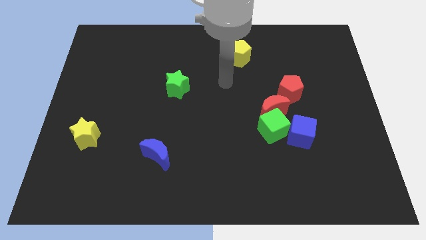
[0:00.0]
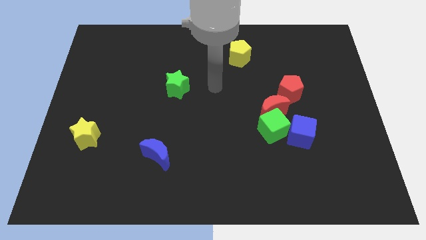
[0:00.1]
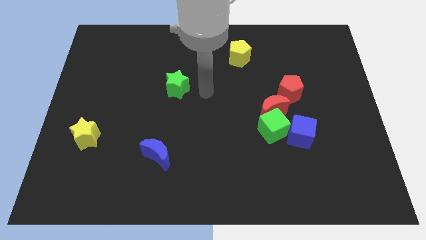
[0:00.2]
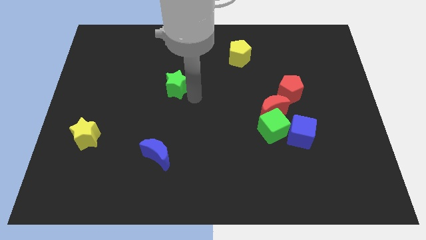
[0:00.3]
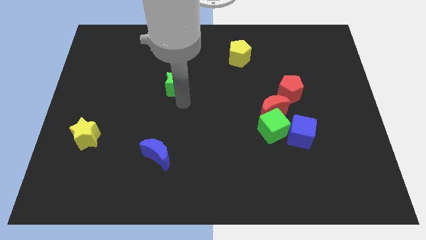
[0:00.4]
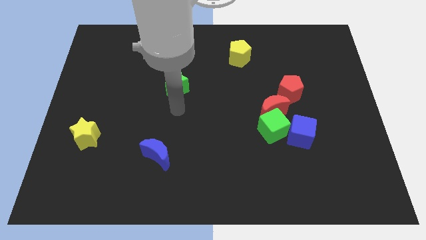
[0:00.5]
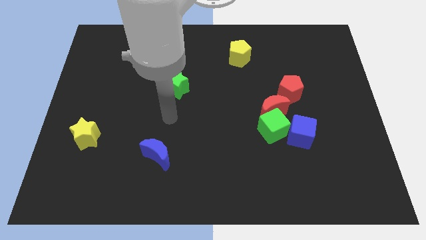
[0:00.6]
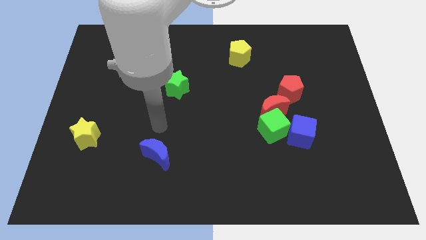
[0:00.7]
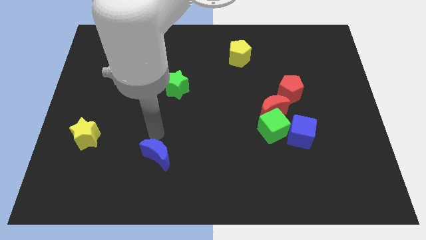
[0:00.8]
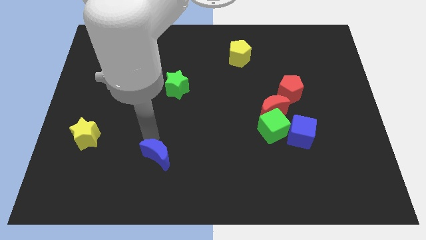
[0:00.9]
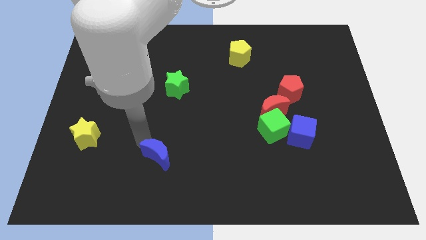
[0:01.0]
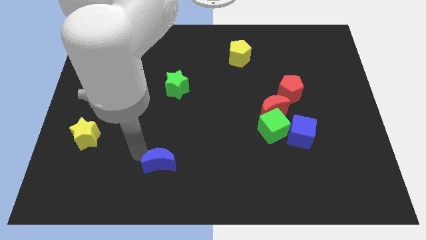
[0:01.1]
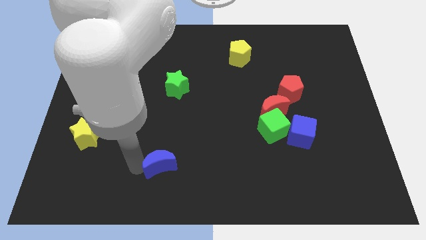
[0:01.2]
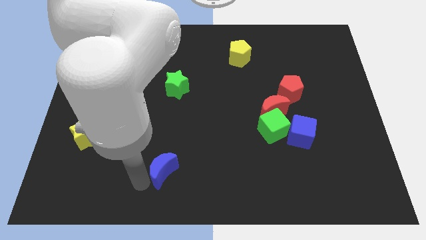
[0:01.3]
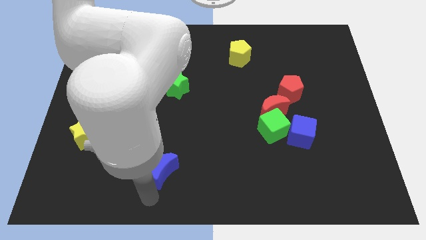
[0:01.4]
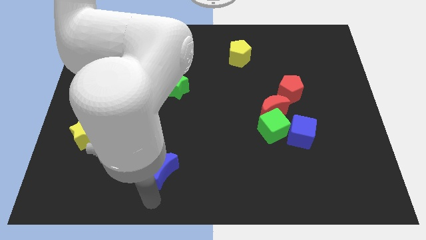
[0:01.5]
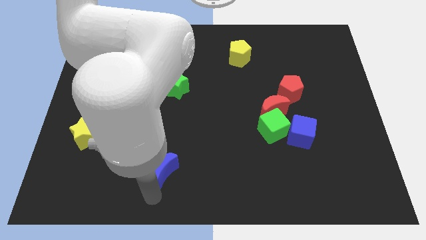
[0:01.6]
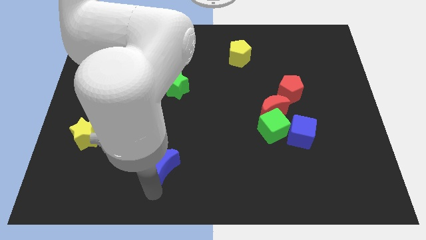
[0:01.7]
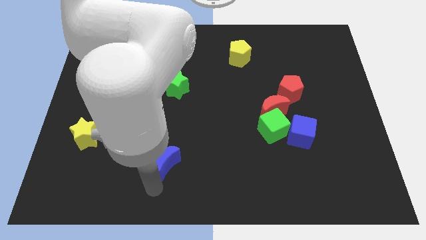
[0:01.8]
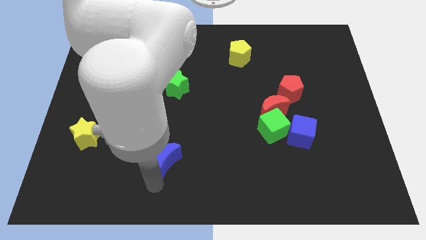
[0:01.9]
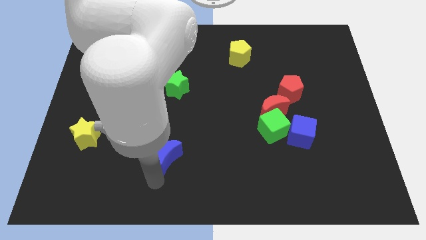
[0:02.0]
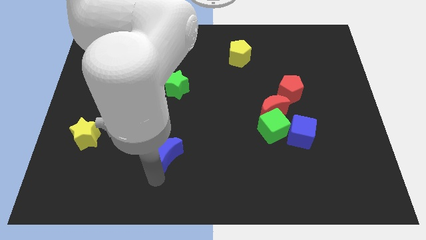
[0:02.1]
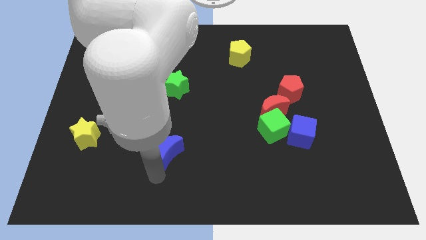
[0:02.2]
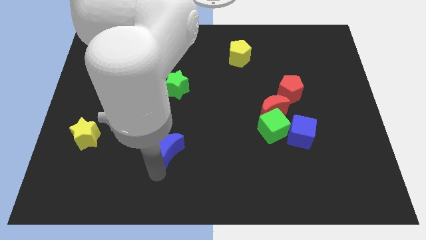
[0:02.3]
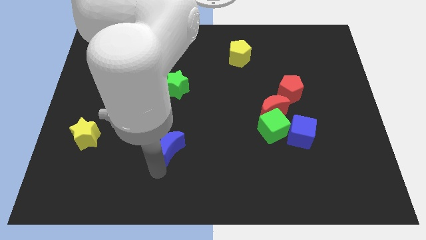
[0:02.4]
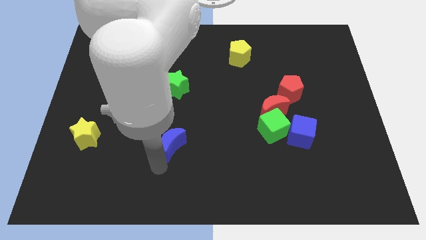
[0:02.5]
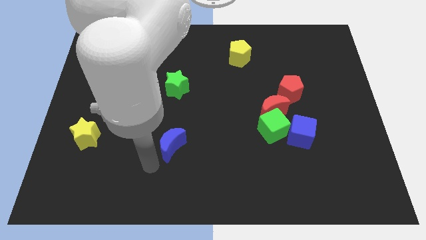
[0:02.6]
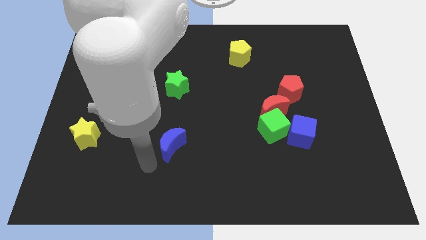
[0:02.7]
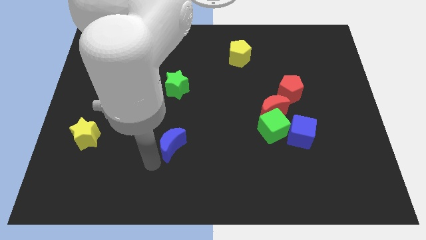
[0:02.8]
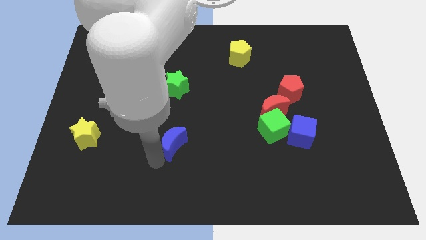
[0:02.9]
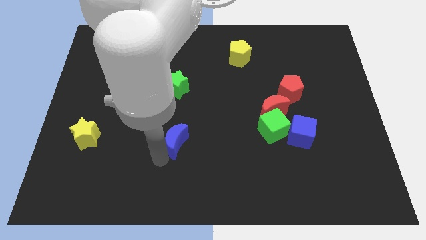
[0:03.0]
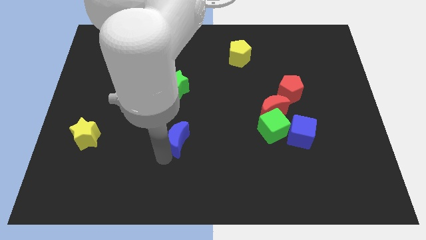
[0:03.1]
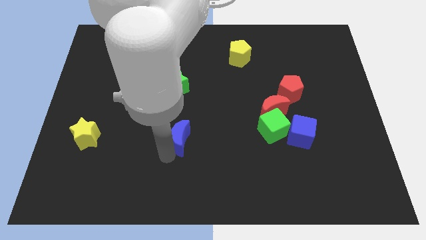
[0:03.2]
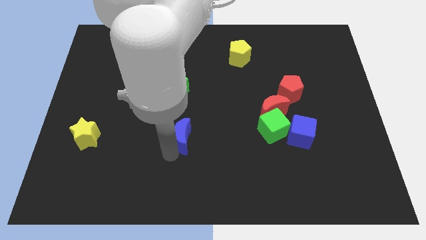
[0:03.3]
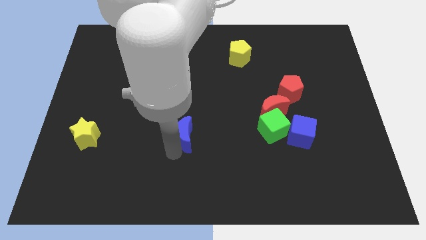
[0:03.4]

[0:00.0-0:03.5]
slightly slide the blue moon up and right diagonally

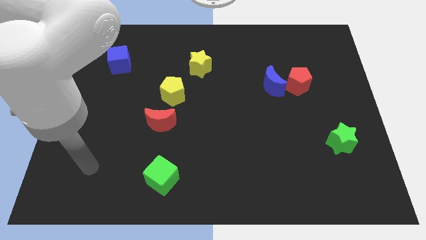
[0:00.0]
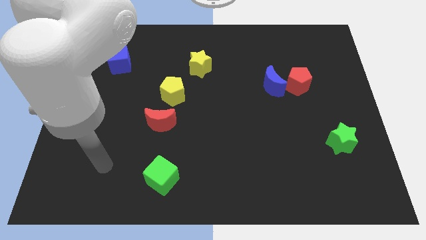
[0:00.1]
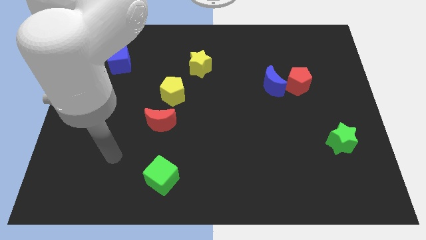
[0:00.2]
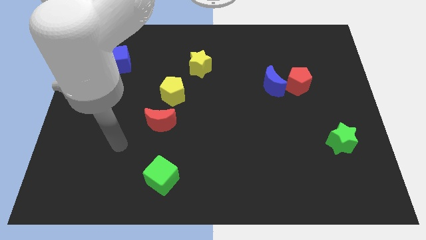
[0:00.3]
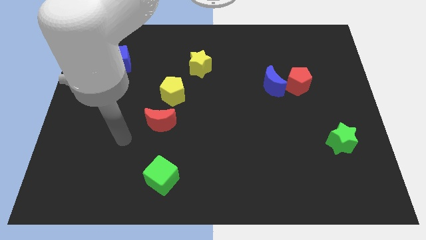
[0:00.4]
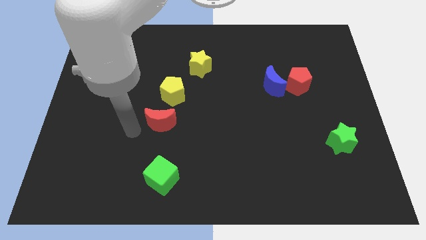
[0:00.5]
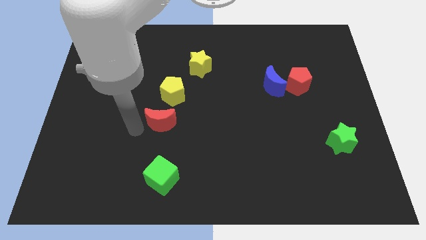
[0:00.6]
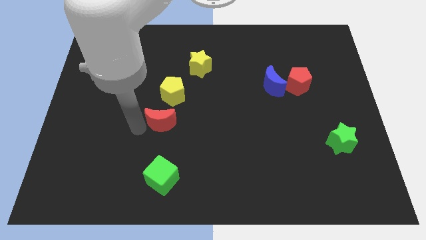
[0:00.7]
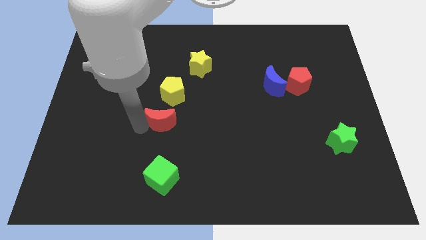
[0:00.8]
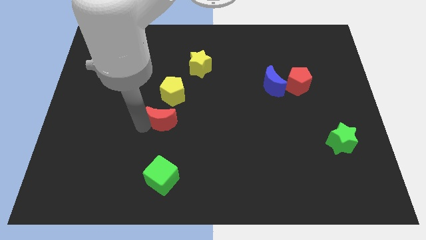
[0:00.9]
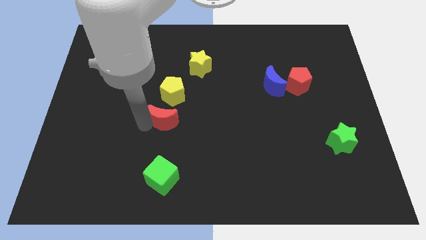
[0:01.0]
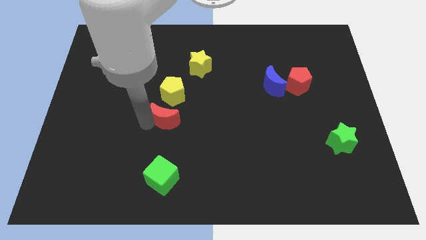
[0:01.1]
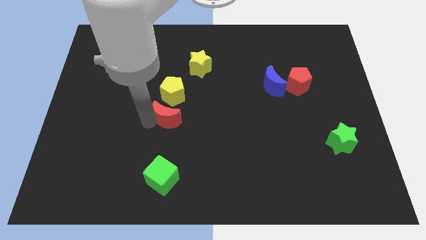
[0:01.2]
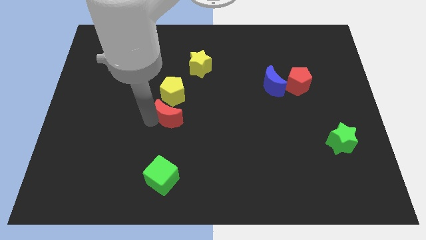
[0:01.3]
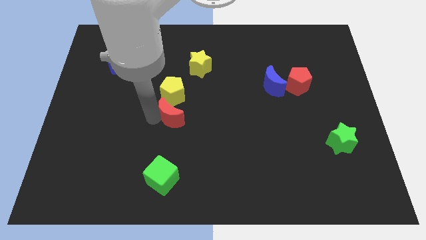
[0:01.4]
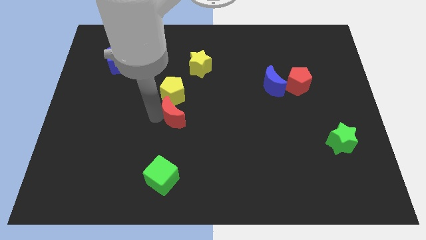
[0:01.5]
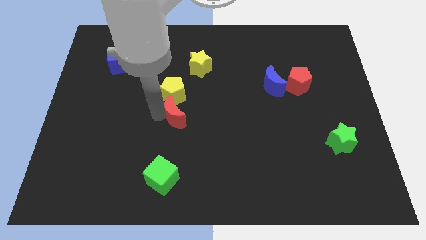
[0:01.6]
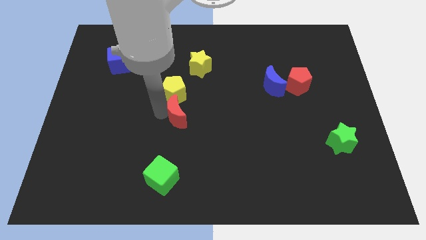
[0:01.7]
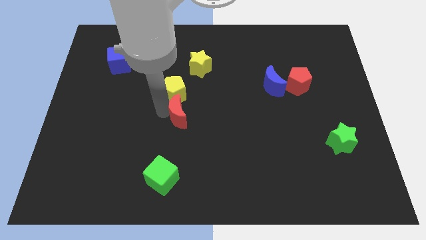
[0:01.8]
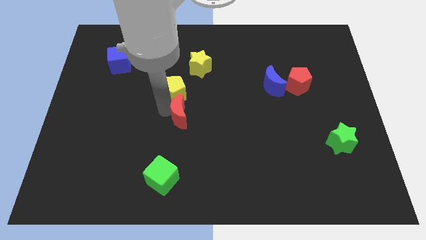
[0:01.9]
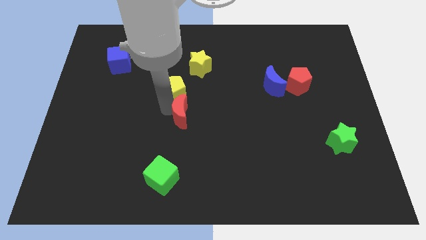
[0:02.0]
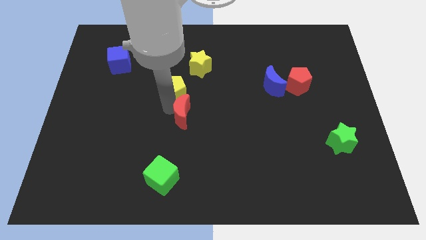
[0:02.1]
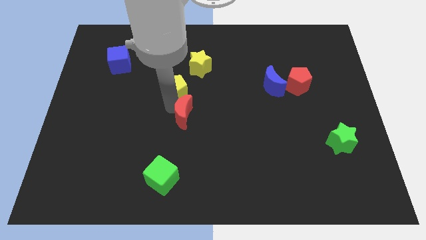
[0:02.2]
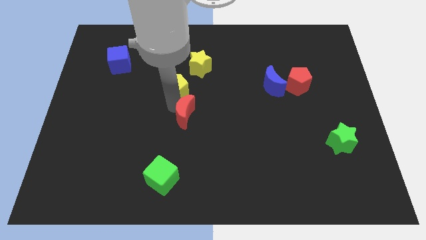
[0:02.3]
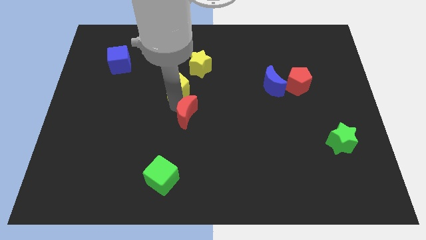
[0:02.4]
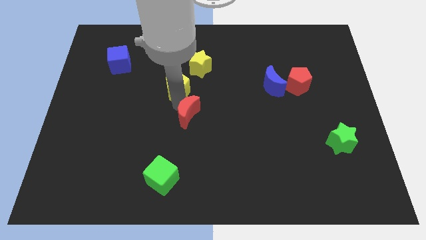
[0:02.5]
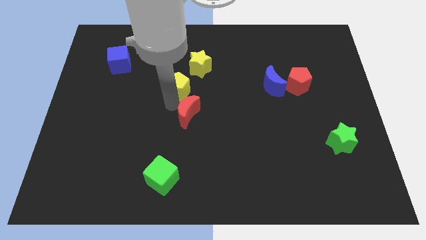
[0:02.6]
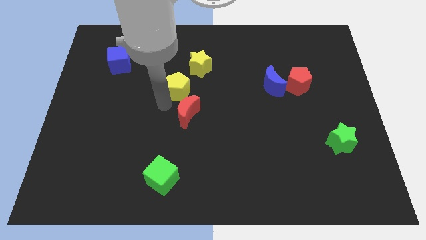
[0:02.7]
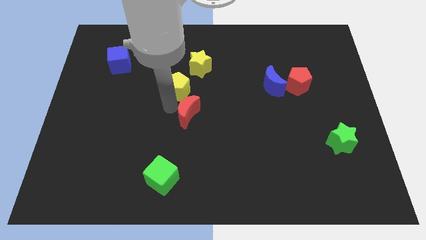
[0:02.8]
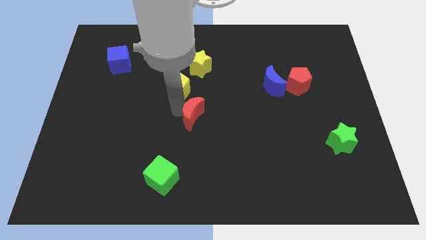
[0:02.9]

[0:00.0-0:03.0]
slightly slide the red moon to the right

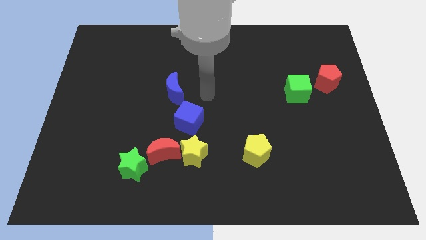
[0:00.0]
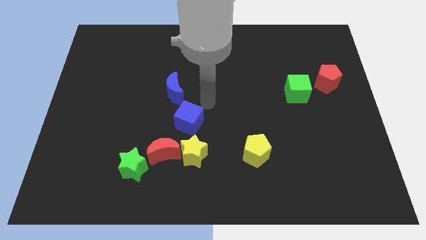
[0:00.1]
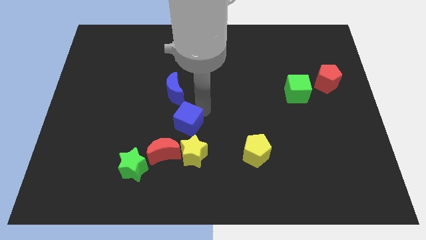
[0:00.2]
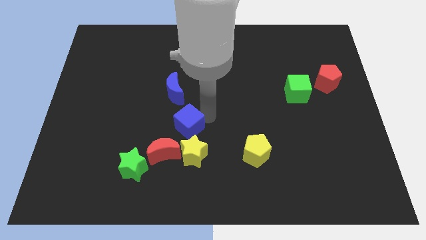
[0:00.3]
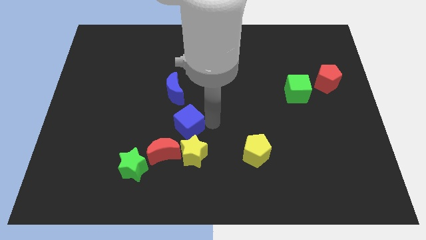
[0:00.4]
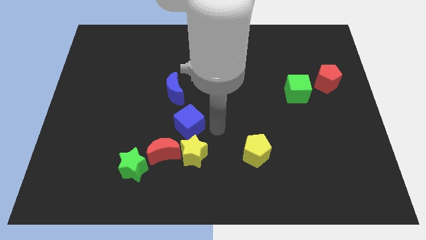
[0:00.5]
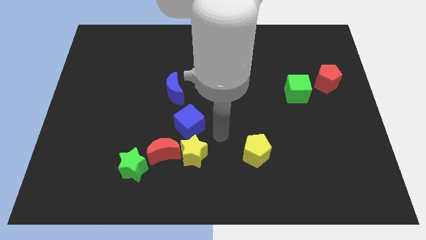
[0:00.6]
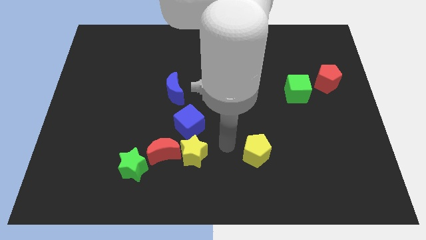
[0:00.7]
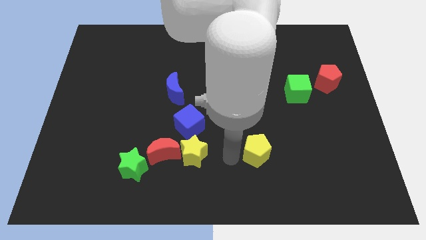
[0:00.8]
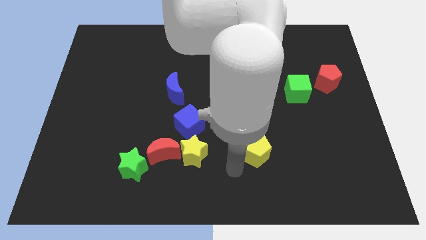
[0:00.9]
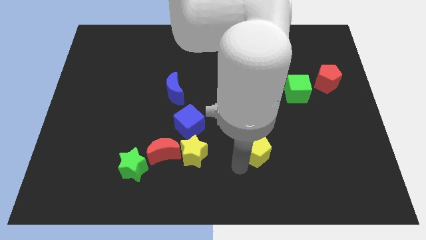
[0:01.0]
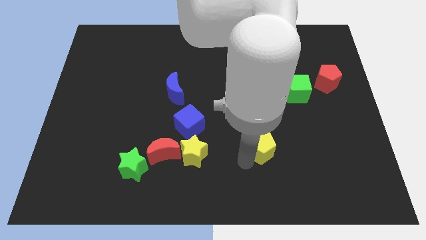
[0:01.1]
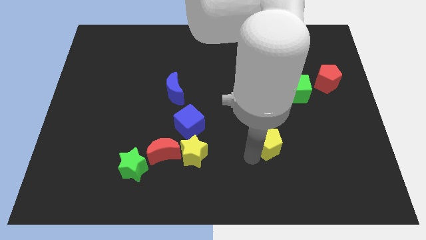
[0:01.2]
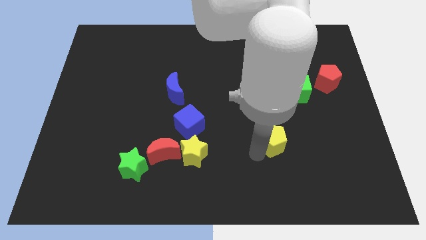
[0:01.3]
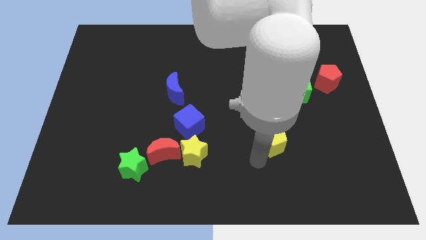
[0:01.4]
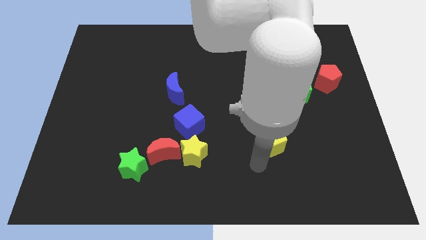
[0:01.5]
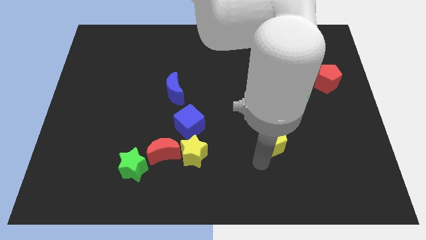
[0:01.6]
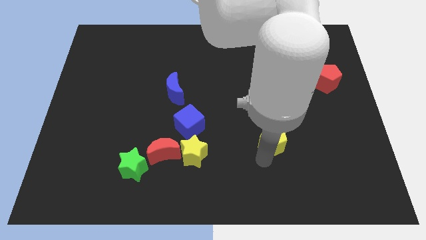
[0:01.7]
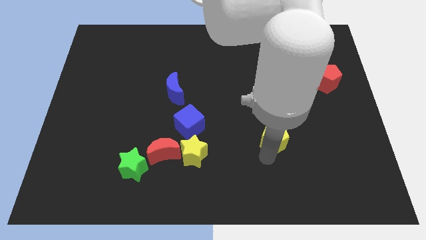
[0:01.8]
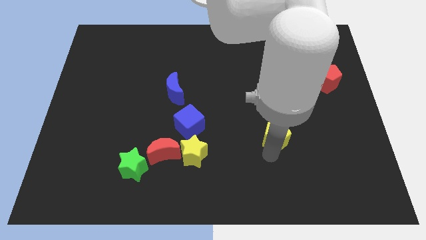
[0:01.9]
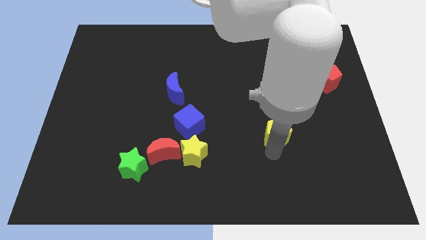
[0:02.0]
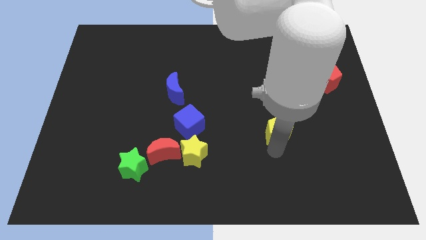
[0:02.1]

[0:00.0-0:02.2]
push the yellow pentagon up and then right a little
